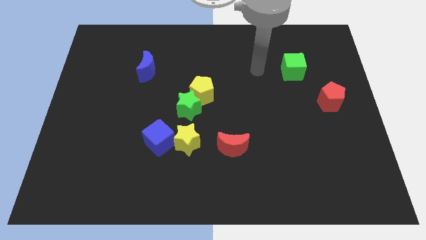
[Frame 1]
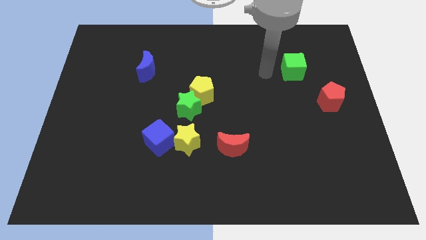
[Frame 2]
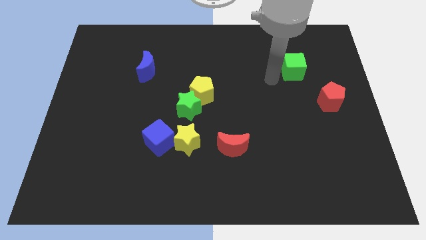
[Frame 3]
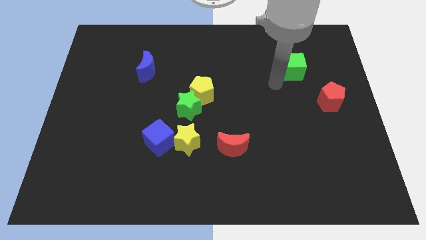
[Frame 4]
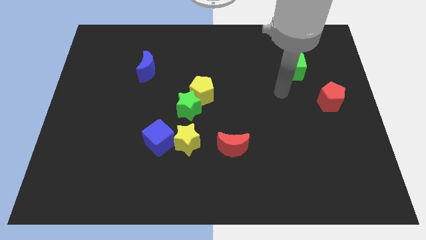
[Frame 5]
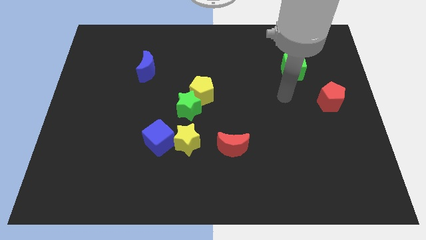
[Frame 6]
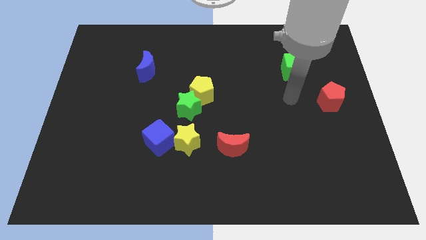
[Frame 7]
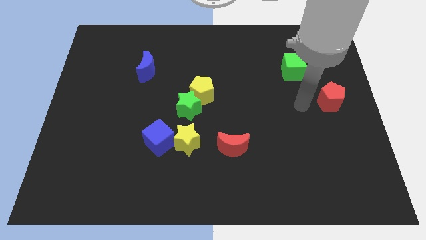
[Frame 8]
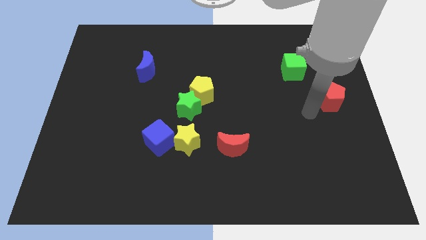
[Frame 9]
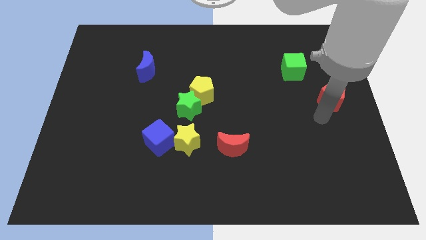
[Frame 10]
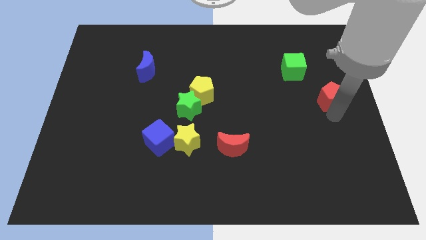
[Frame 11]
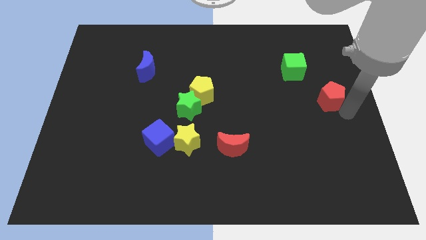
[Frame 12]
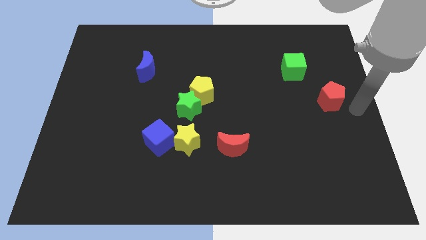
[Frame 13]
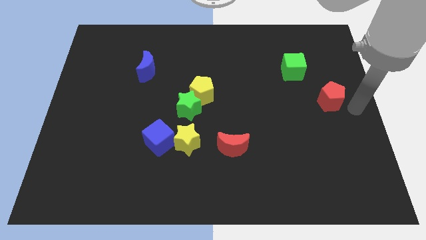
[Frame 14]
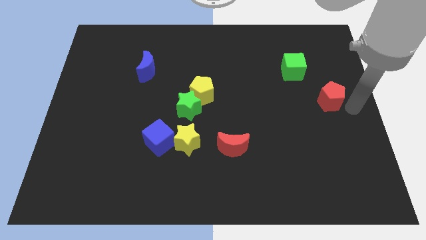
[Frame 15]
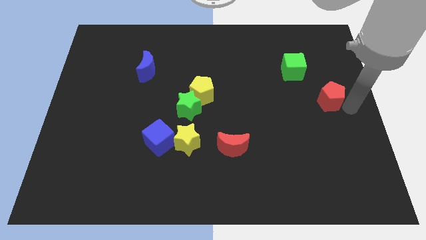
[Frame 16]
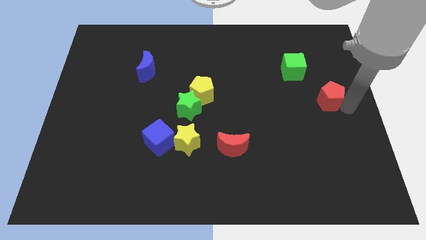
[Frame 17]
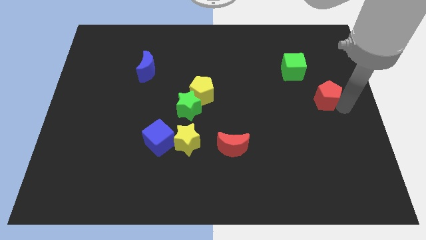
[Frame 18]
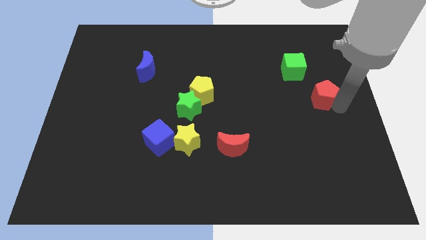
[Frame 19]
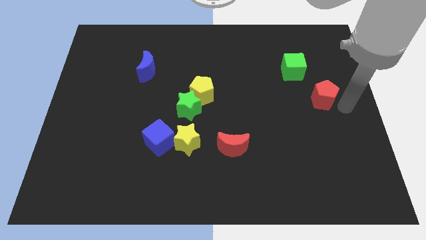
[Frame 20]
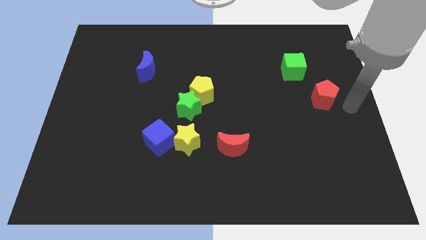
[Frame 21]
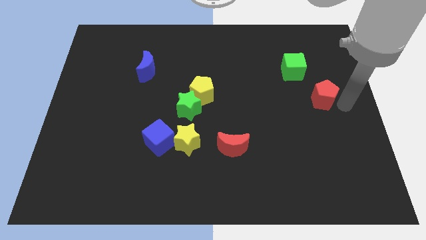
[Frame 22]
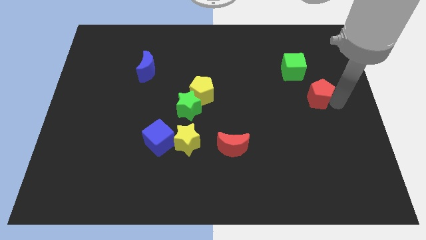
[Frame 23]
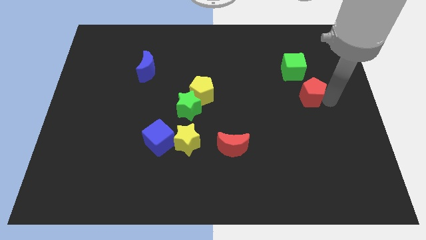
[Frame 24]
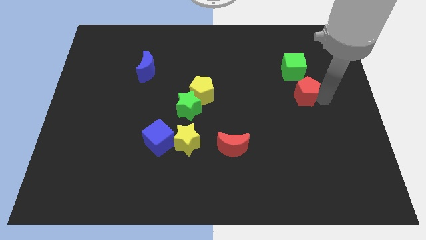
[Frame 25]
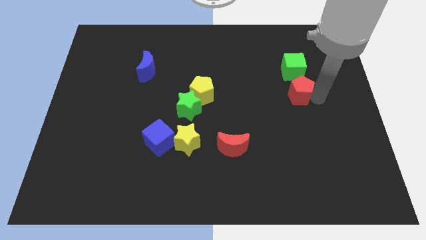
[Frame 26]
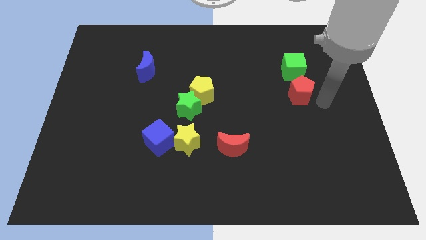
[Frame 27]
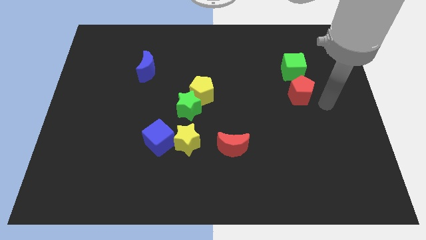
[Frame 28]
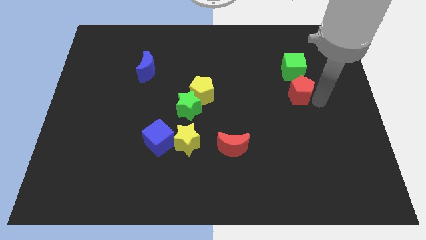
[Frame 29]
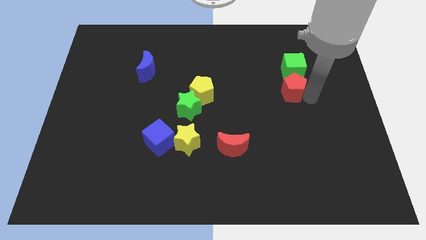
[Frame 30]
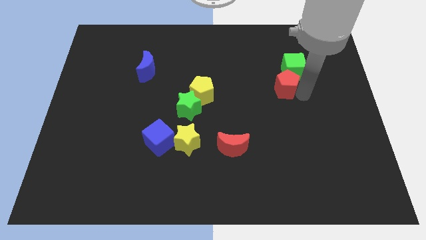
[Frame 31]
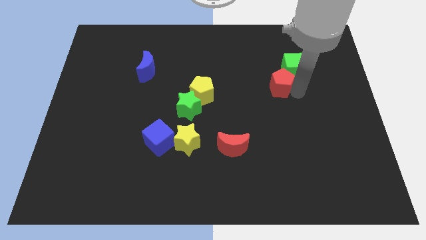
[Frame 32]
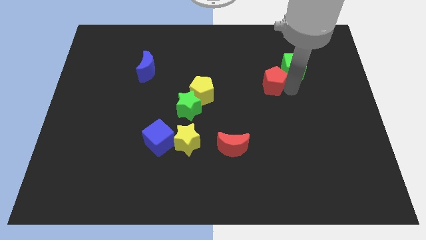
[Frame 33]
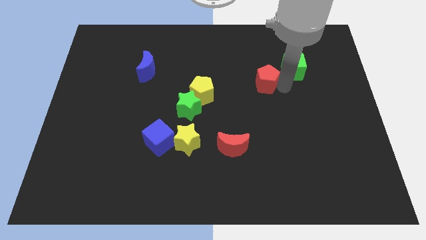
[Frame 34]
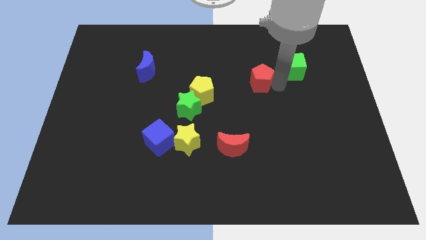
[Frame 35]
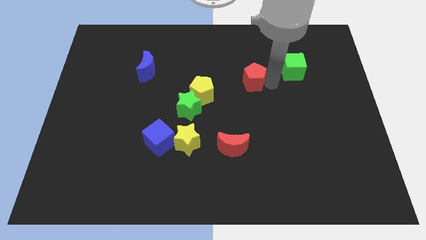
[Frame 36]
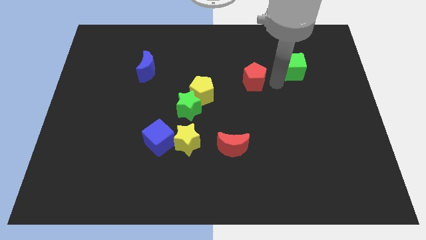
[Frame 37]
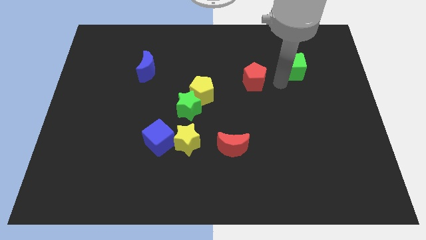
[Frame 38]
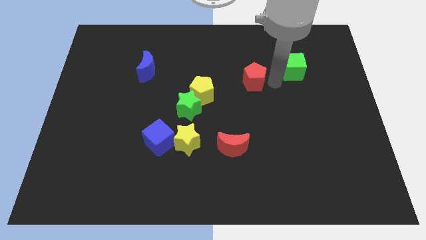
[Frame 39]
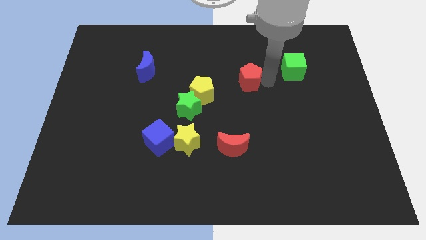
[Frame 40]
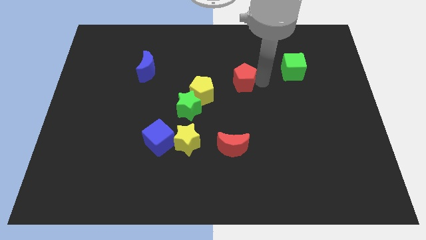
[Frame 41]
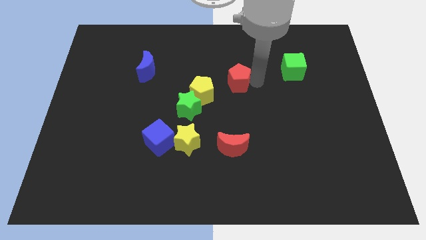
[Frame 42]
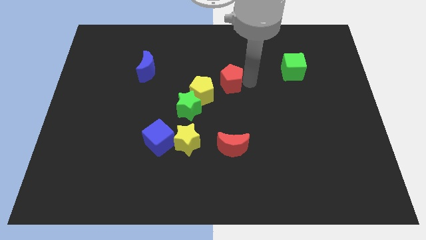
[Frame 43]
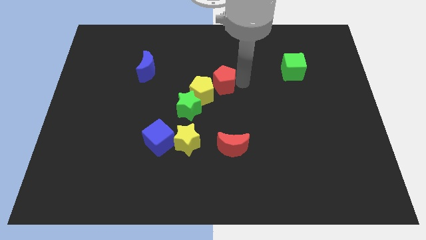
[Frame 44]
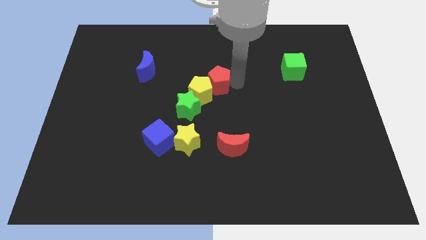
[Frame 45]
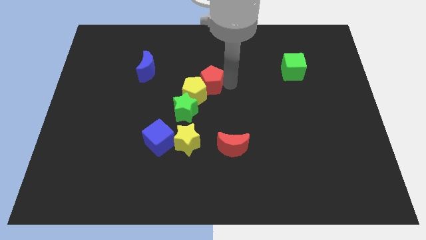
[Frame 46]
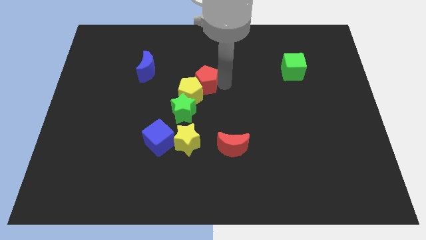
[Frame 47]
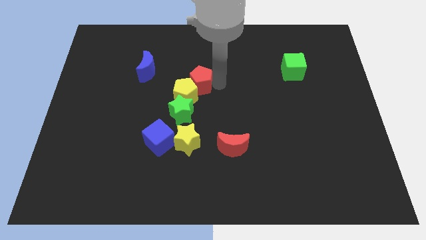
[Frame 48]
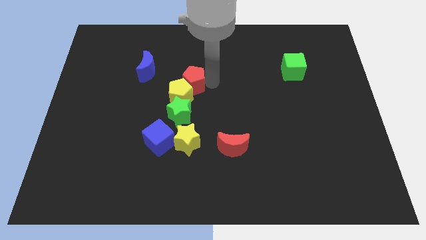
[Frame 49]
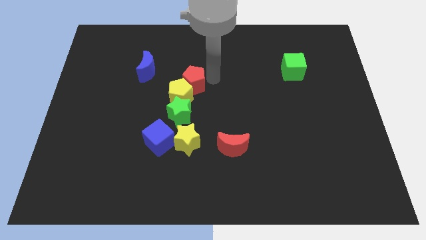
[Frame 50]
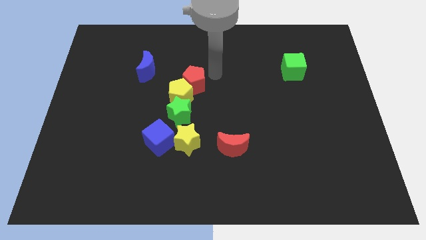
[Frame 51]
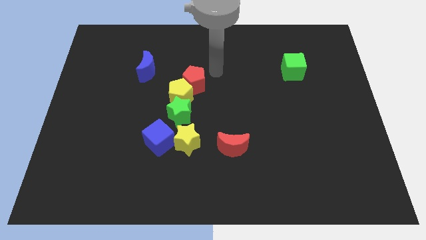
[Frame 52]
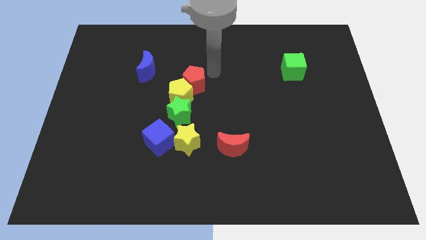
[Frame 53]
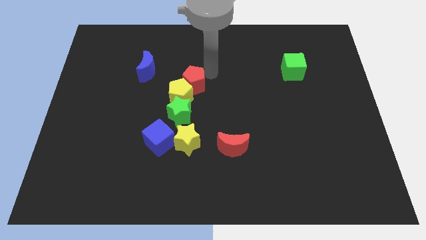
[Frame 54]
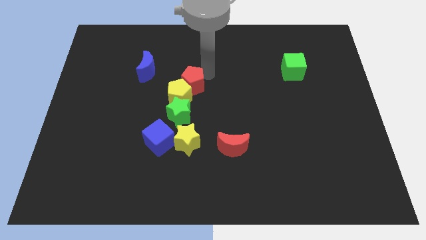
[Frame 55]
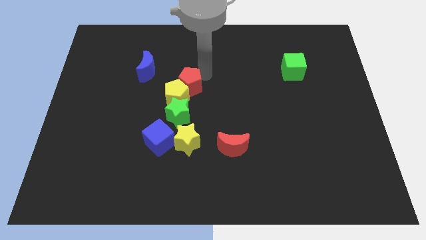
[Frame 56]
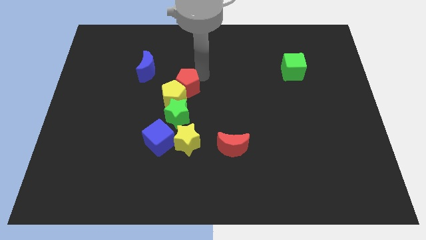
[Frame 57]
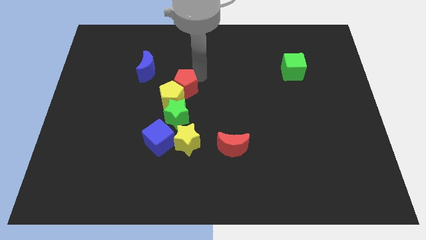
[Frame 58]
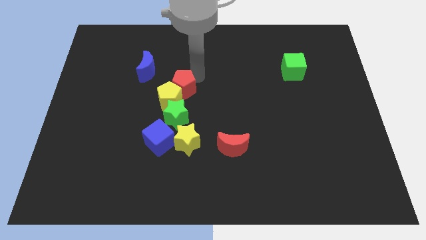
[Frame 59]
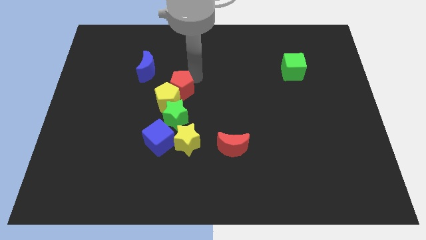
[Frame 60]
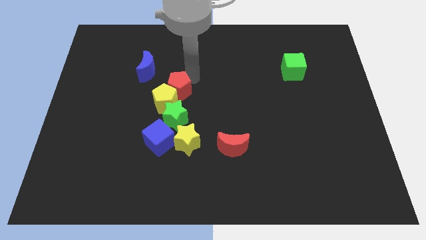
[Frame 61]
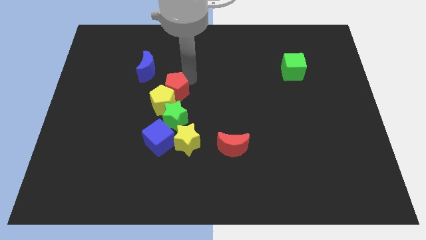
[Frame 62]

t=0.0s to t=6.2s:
slide the red pentagon to the top of the blue cube
